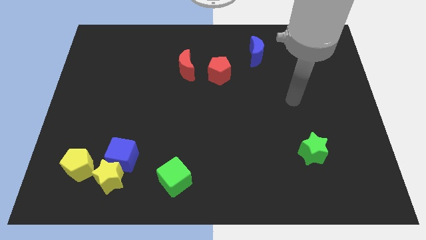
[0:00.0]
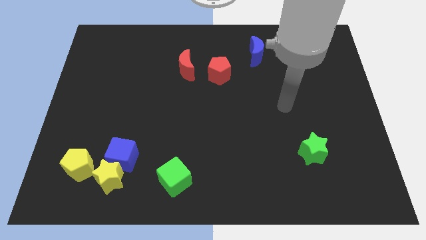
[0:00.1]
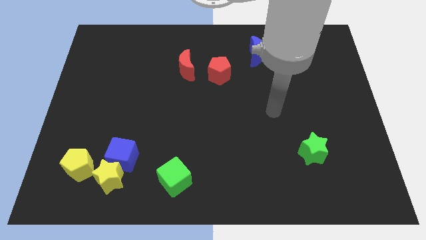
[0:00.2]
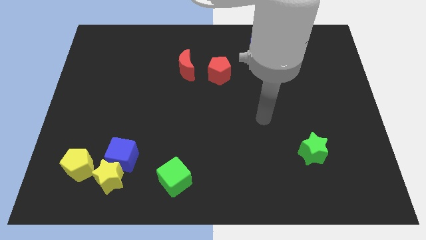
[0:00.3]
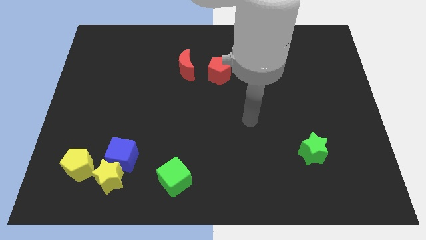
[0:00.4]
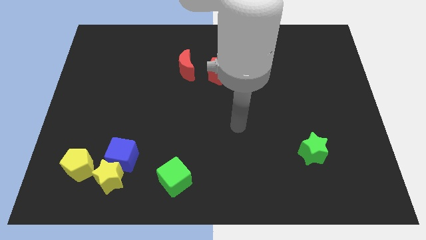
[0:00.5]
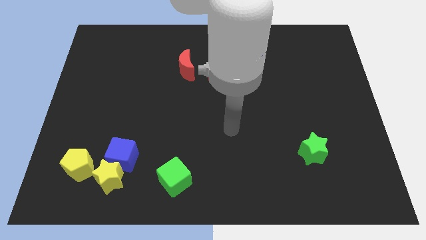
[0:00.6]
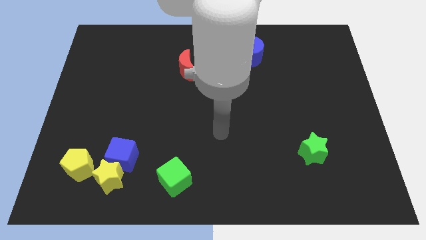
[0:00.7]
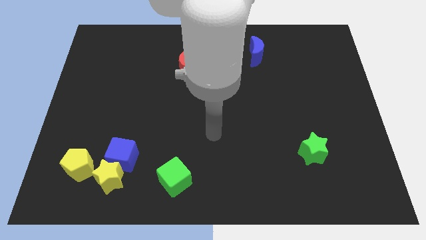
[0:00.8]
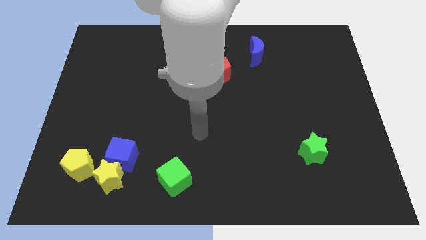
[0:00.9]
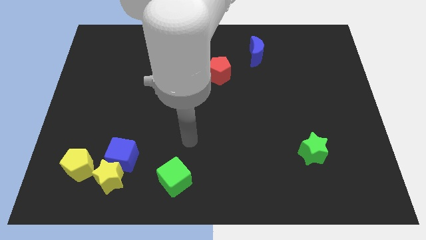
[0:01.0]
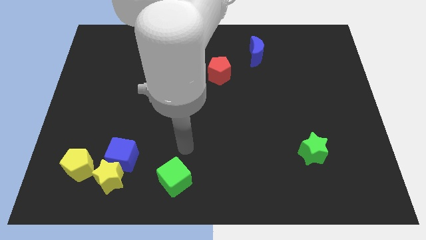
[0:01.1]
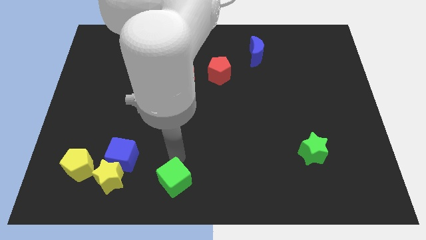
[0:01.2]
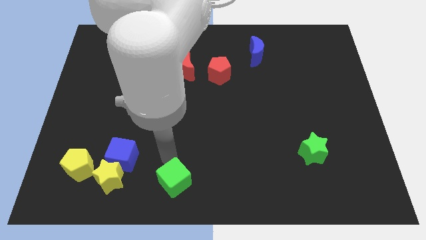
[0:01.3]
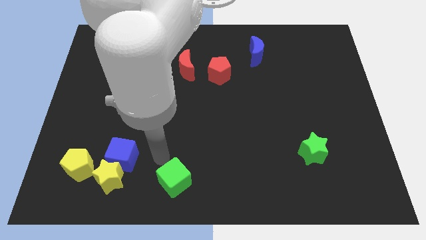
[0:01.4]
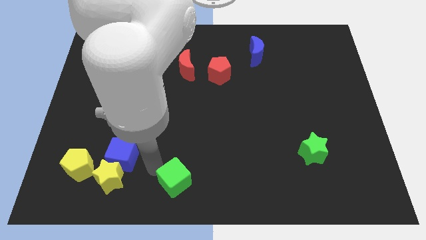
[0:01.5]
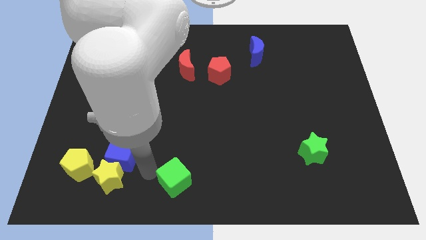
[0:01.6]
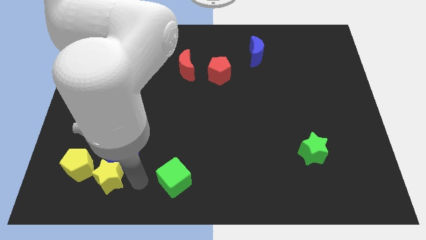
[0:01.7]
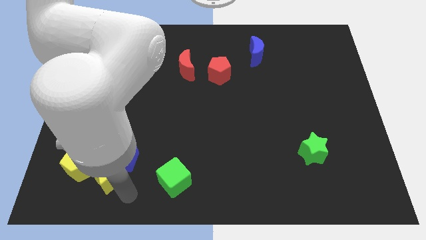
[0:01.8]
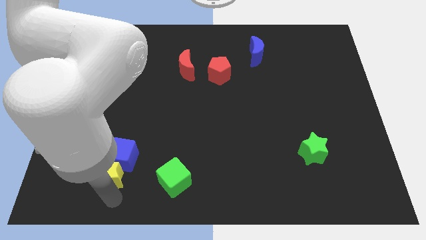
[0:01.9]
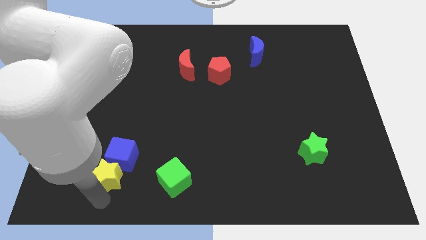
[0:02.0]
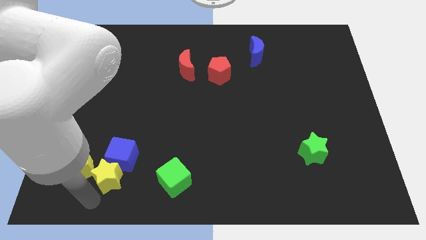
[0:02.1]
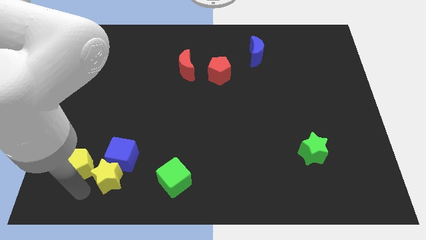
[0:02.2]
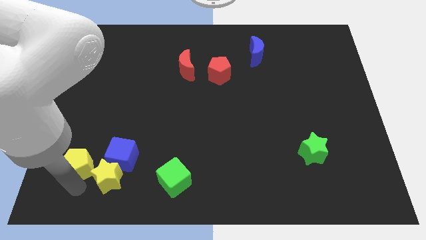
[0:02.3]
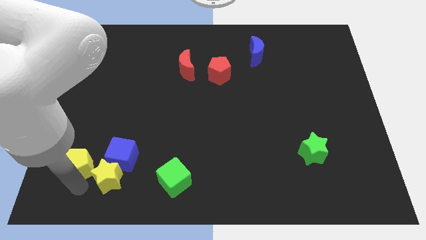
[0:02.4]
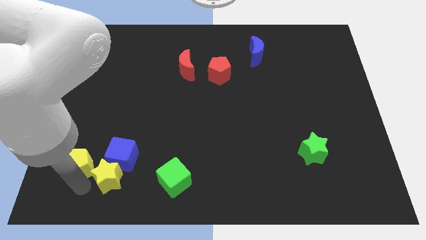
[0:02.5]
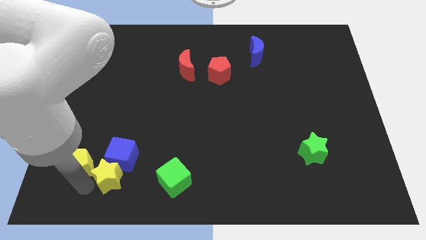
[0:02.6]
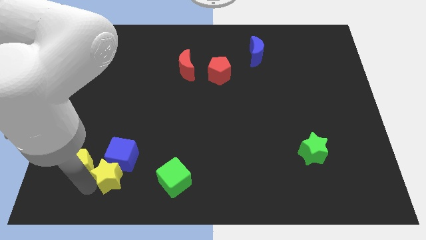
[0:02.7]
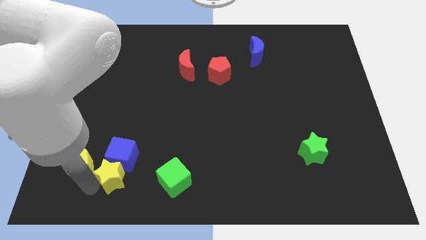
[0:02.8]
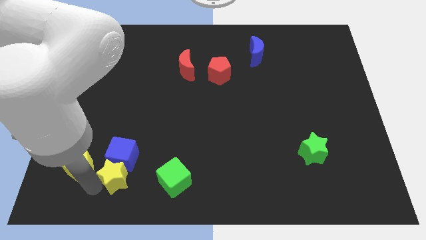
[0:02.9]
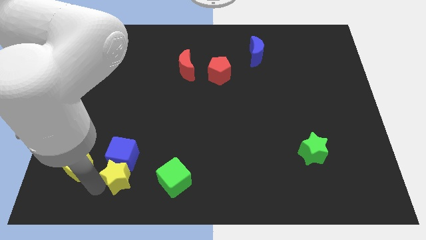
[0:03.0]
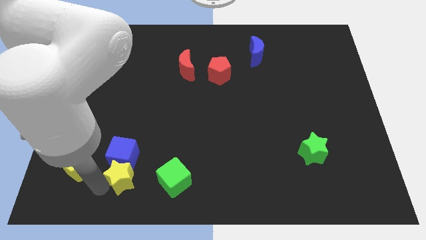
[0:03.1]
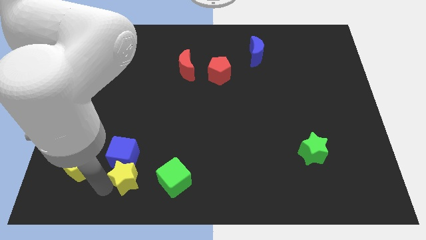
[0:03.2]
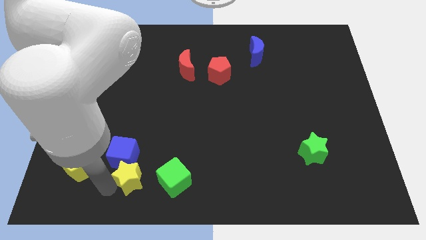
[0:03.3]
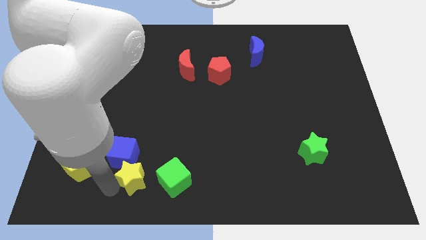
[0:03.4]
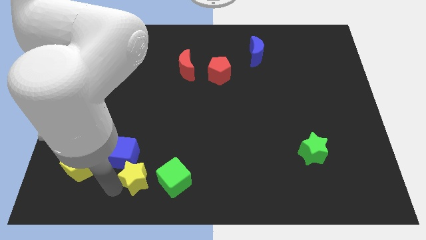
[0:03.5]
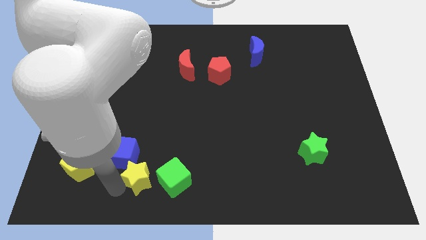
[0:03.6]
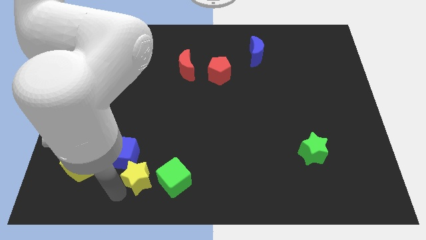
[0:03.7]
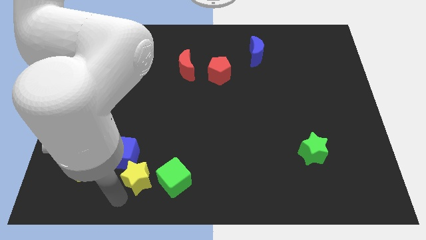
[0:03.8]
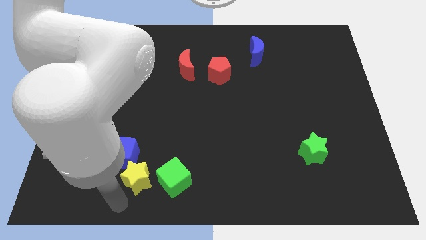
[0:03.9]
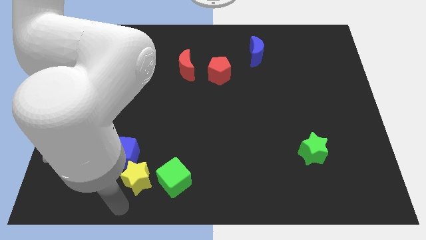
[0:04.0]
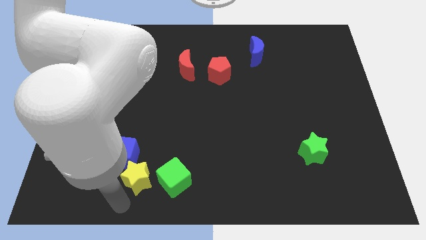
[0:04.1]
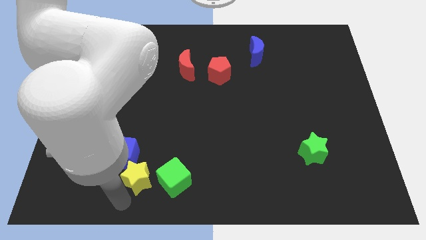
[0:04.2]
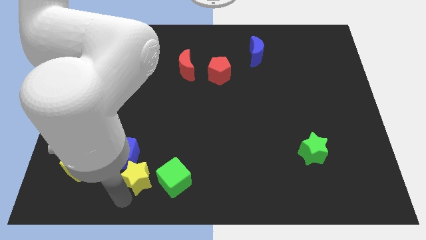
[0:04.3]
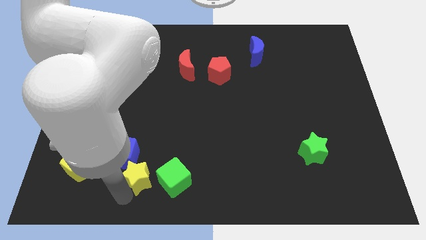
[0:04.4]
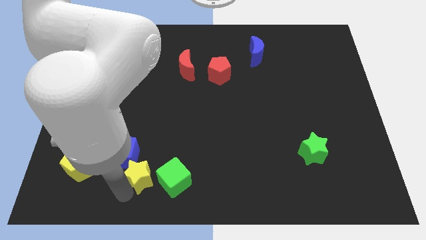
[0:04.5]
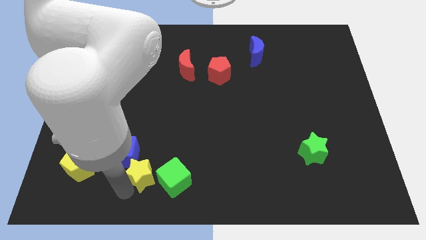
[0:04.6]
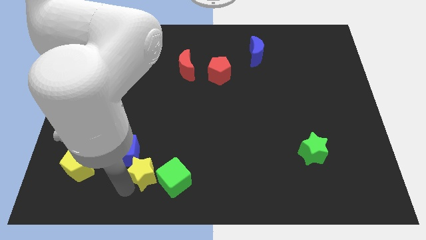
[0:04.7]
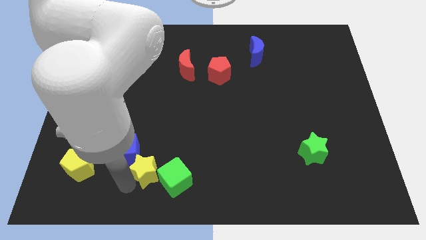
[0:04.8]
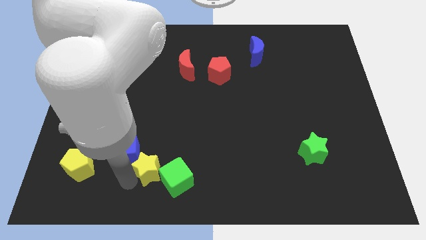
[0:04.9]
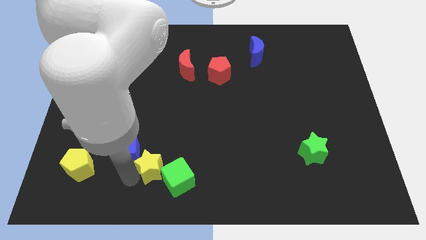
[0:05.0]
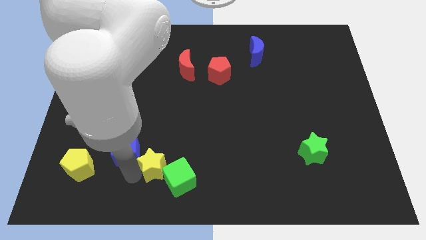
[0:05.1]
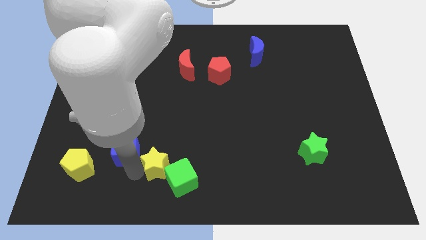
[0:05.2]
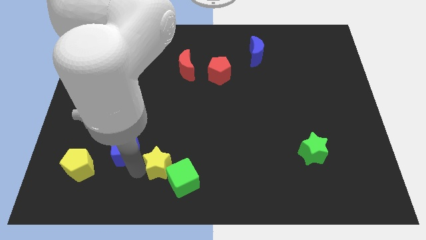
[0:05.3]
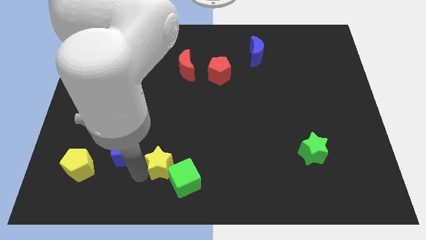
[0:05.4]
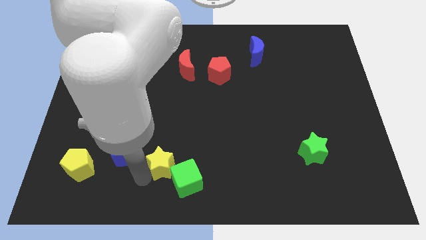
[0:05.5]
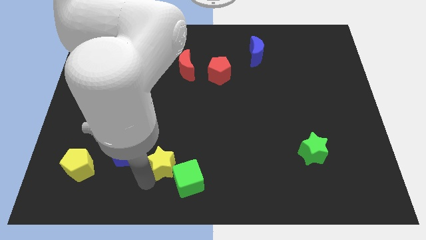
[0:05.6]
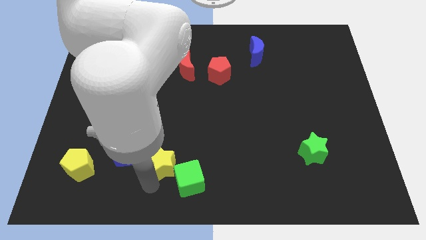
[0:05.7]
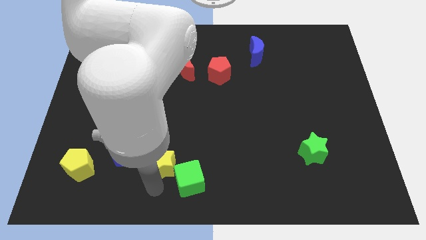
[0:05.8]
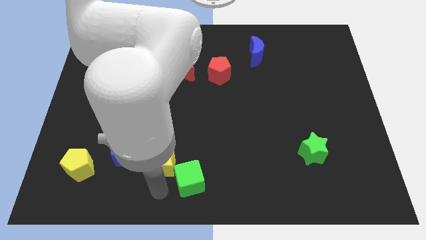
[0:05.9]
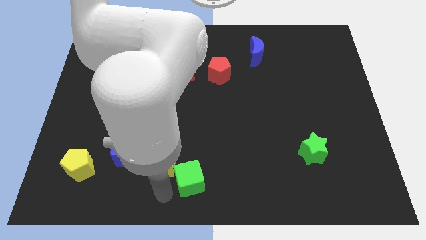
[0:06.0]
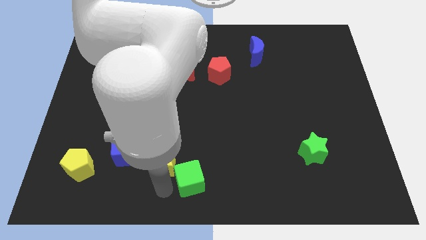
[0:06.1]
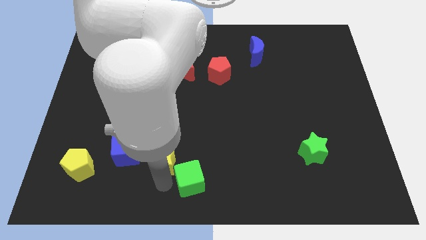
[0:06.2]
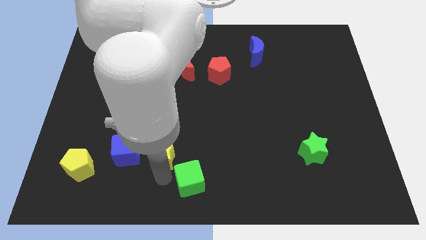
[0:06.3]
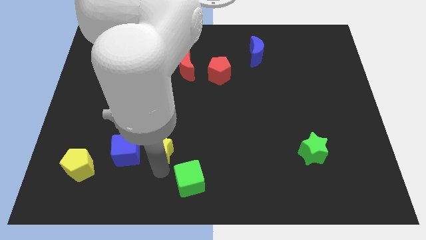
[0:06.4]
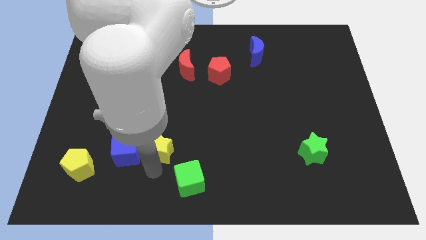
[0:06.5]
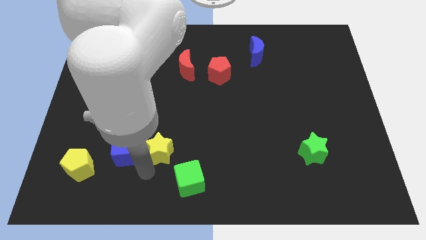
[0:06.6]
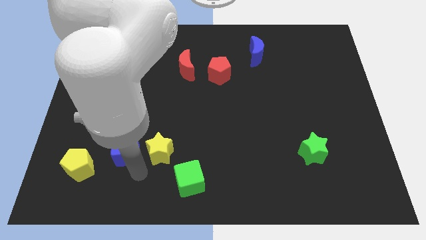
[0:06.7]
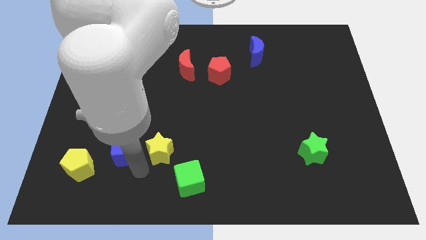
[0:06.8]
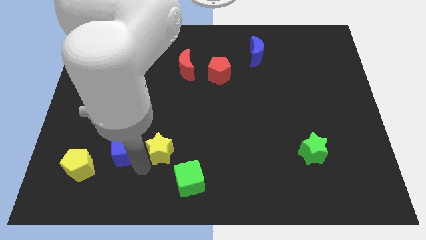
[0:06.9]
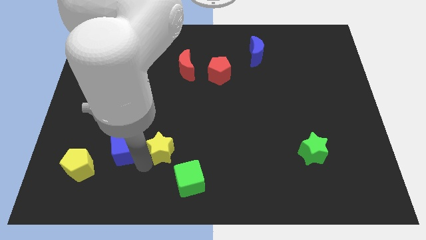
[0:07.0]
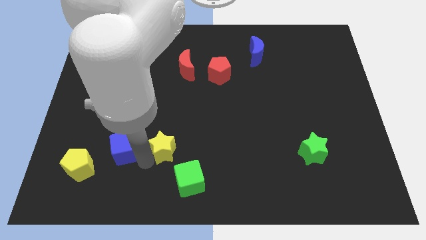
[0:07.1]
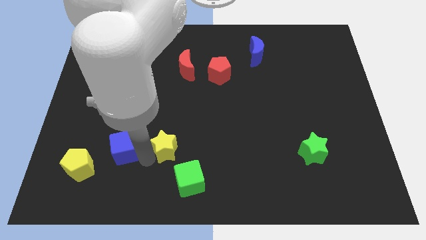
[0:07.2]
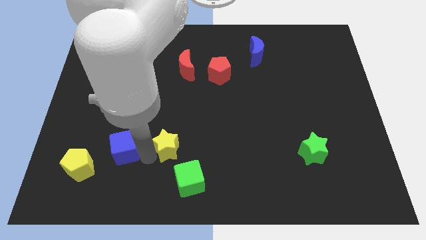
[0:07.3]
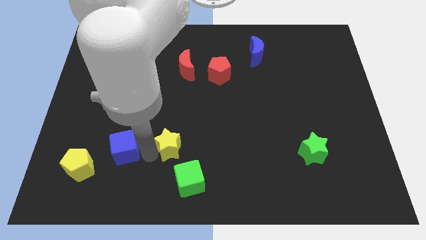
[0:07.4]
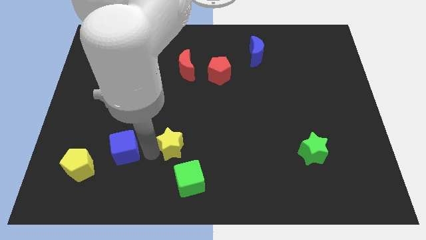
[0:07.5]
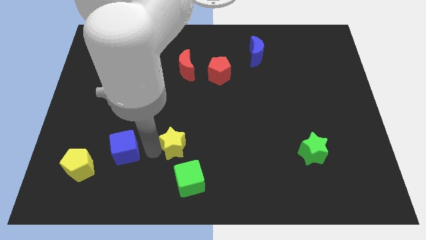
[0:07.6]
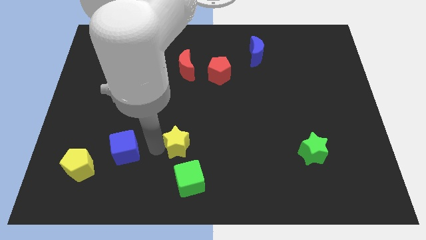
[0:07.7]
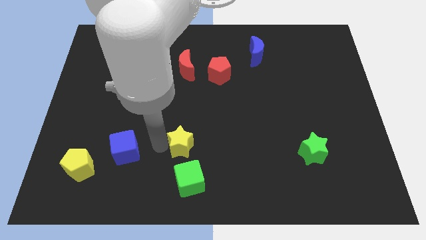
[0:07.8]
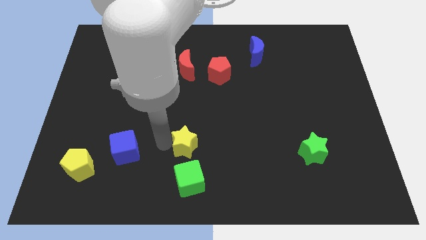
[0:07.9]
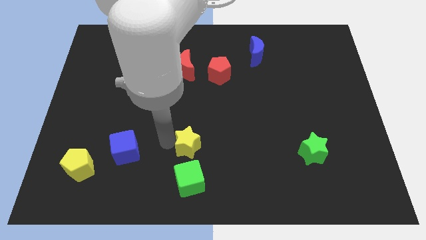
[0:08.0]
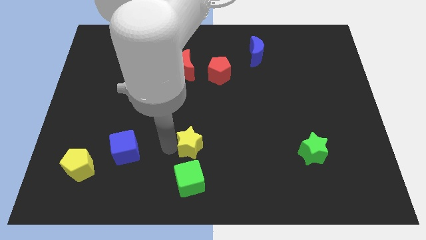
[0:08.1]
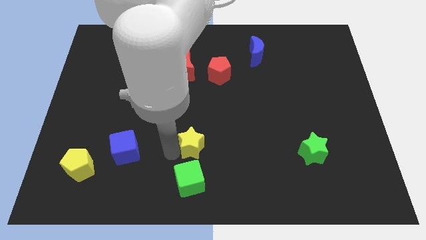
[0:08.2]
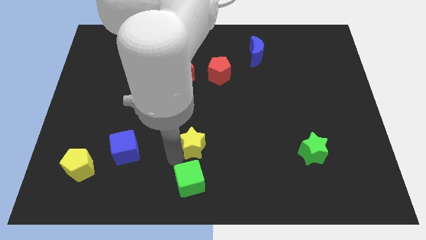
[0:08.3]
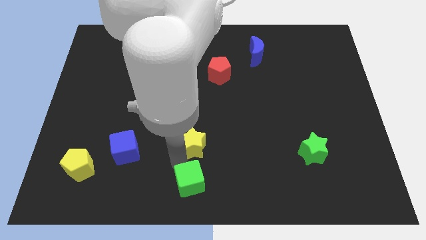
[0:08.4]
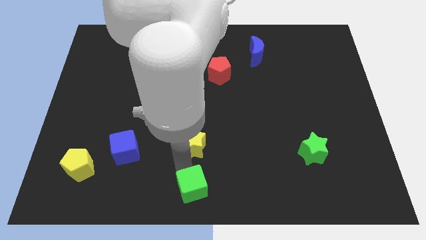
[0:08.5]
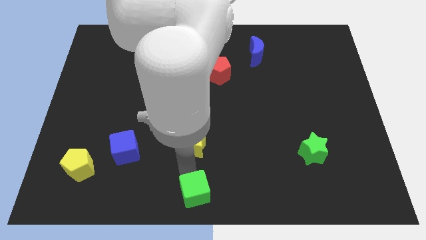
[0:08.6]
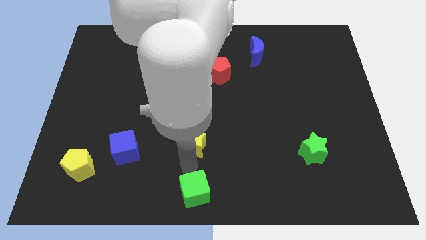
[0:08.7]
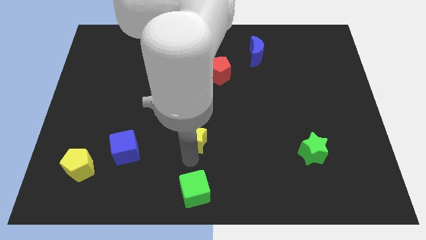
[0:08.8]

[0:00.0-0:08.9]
push the yellow star to the middle of the board
